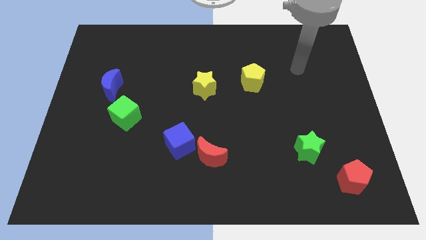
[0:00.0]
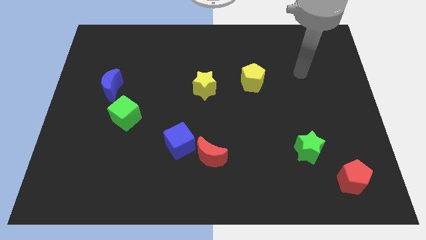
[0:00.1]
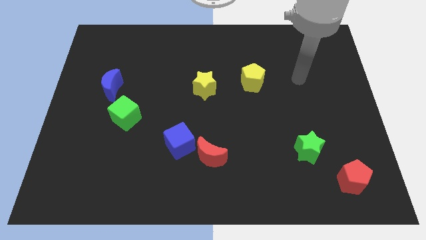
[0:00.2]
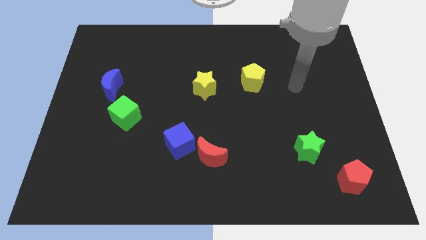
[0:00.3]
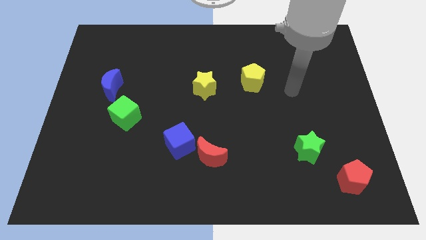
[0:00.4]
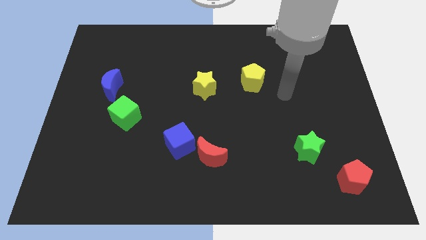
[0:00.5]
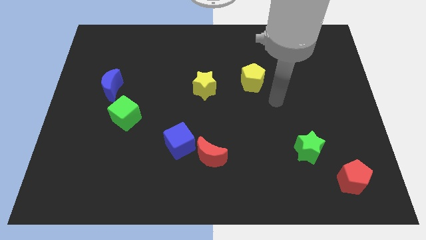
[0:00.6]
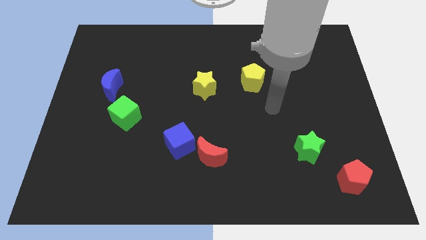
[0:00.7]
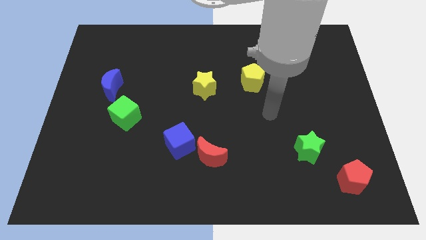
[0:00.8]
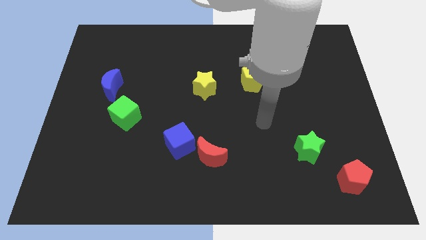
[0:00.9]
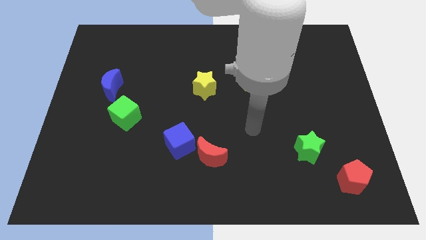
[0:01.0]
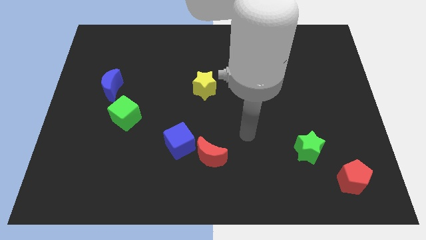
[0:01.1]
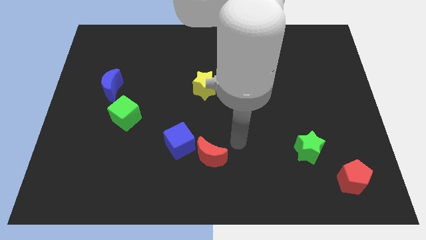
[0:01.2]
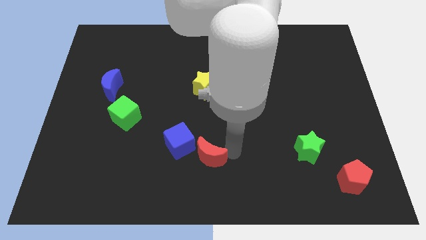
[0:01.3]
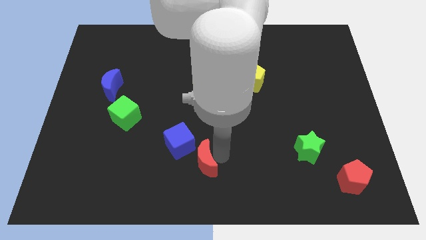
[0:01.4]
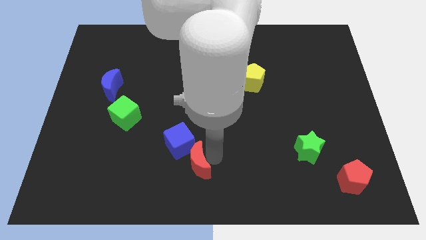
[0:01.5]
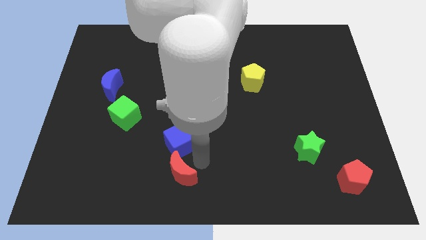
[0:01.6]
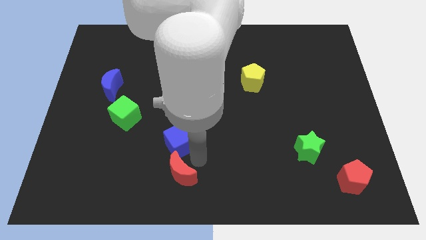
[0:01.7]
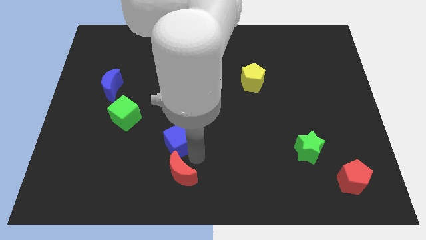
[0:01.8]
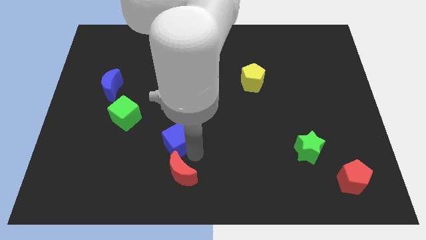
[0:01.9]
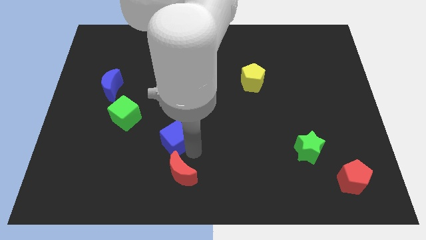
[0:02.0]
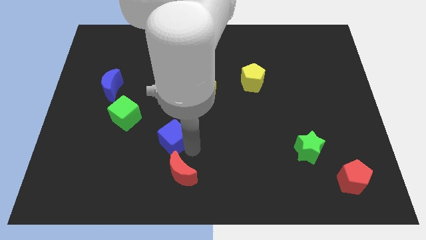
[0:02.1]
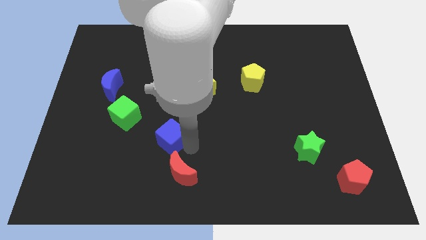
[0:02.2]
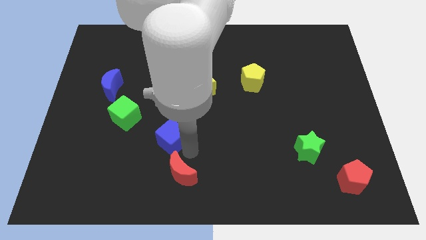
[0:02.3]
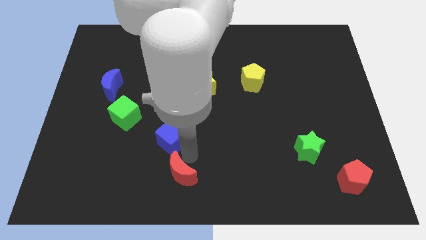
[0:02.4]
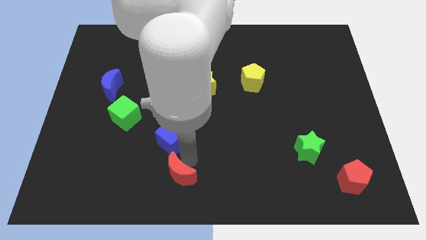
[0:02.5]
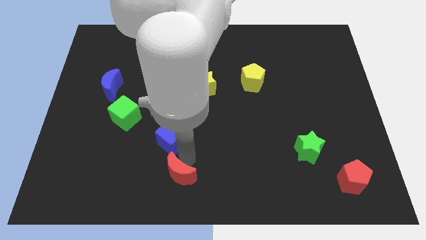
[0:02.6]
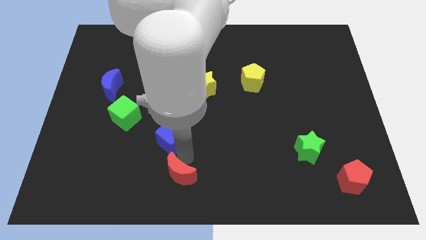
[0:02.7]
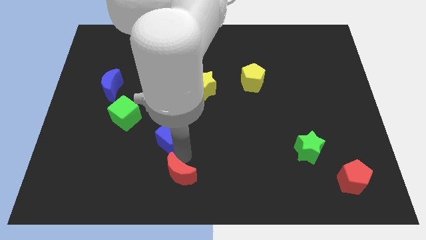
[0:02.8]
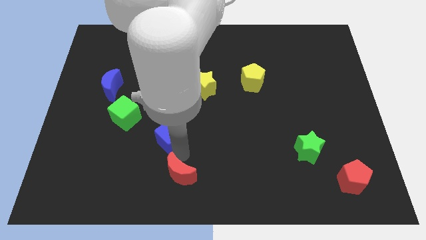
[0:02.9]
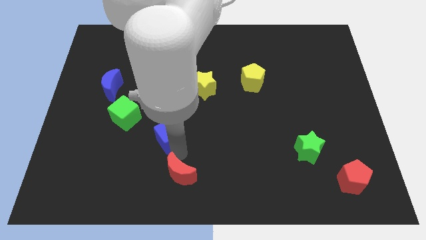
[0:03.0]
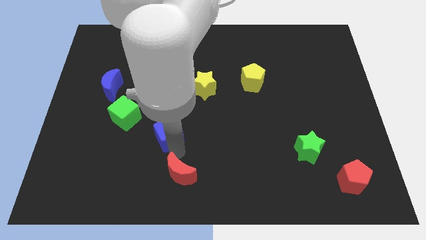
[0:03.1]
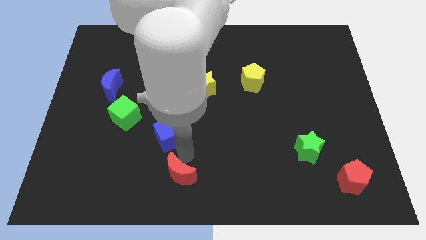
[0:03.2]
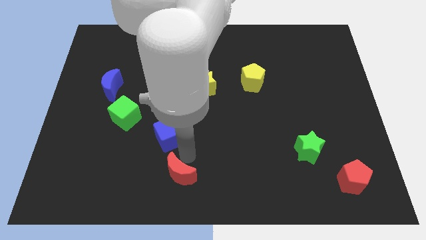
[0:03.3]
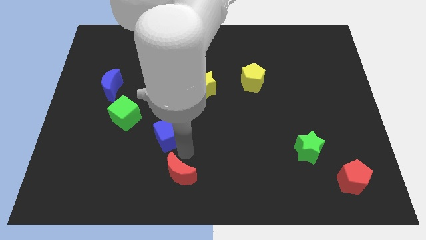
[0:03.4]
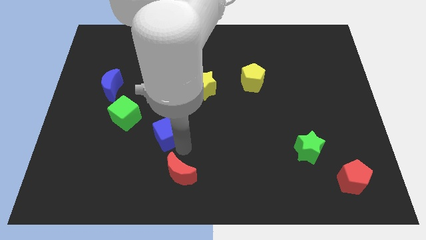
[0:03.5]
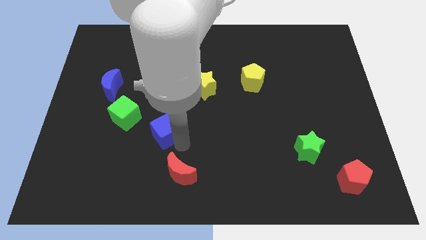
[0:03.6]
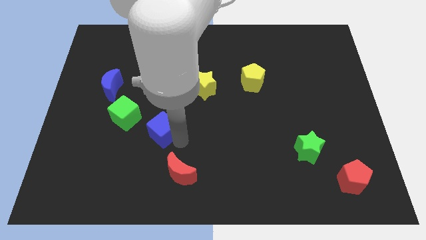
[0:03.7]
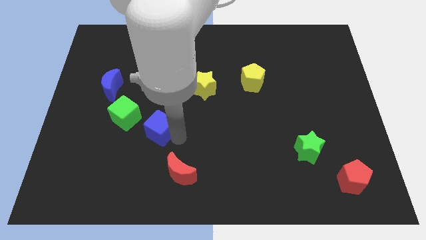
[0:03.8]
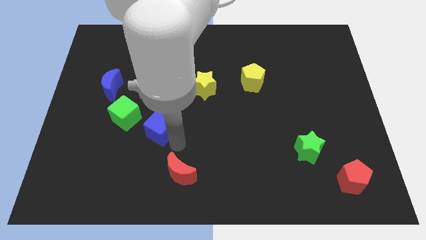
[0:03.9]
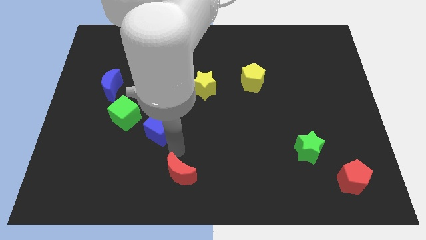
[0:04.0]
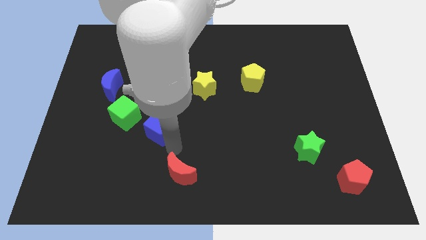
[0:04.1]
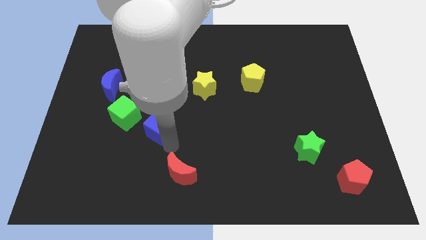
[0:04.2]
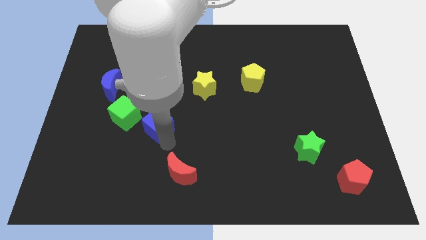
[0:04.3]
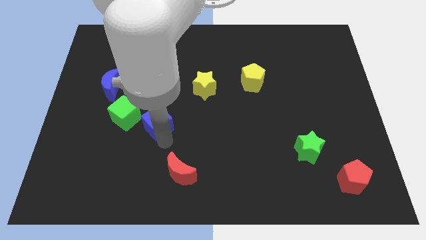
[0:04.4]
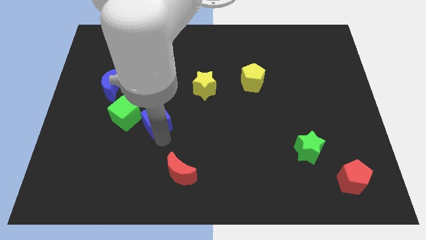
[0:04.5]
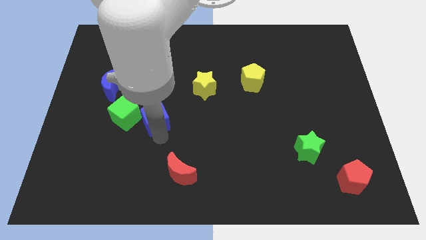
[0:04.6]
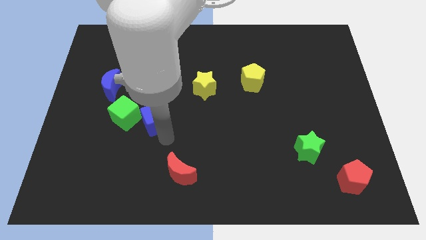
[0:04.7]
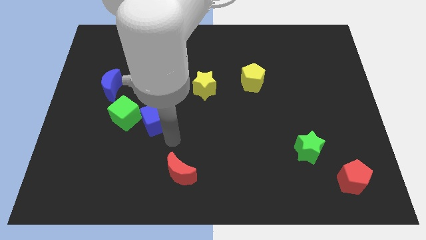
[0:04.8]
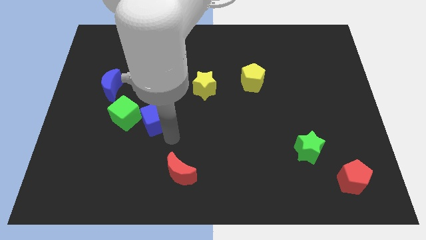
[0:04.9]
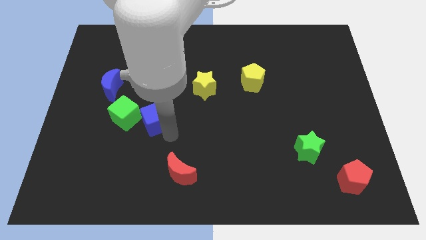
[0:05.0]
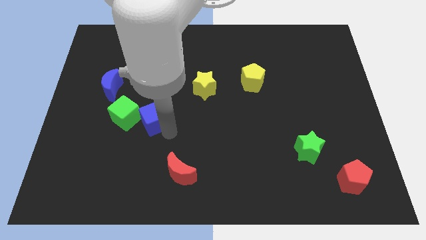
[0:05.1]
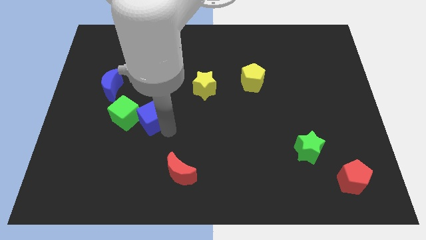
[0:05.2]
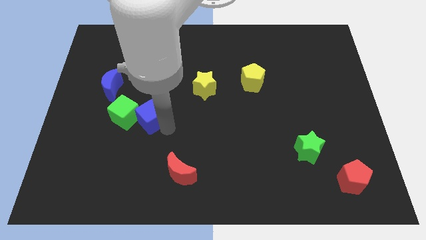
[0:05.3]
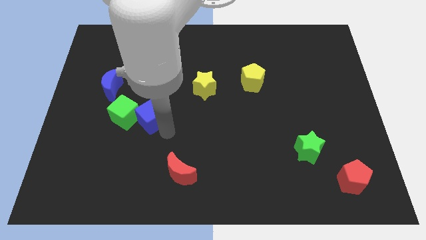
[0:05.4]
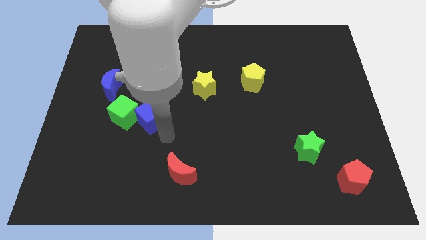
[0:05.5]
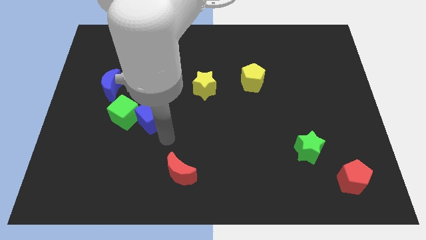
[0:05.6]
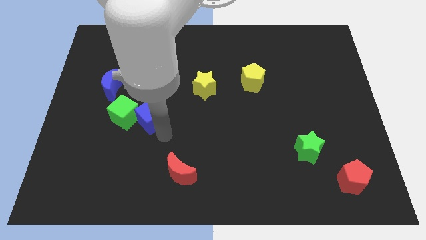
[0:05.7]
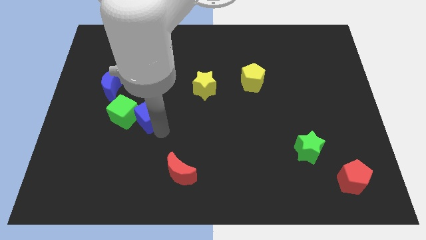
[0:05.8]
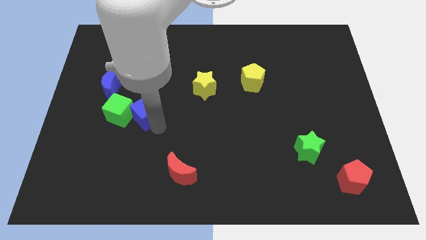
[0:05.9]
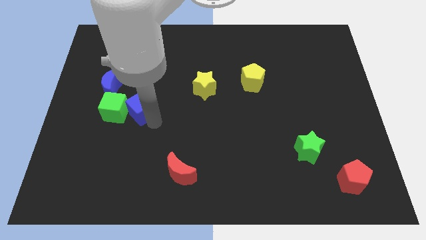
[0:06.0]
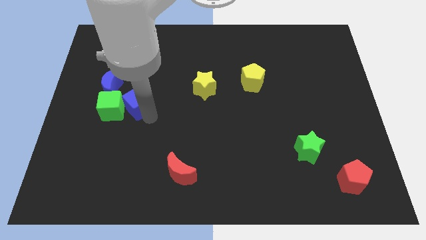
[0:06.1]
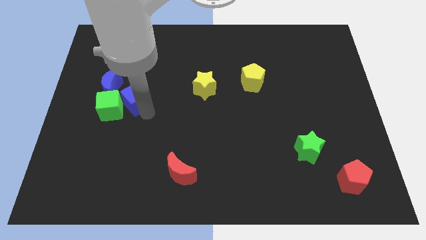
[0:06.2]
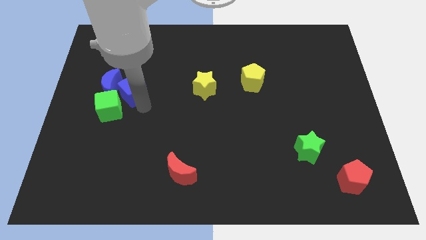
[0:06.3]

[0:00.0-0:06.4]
push the blue cube close to the blue moon
